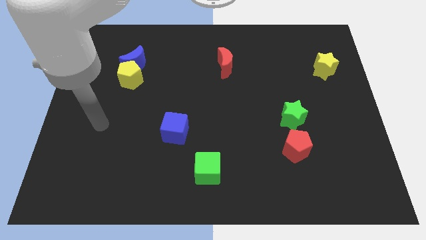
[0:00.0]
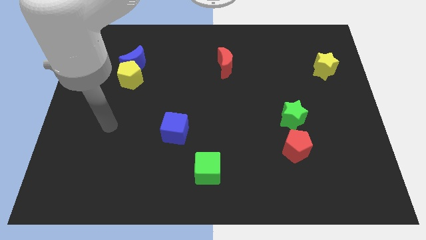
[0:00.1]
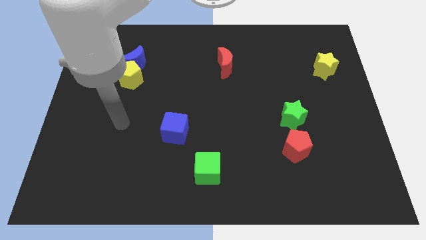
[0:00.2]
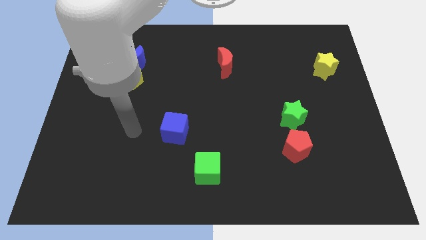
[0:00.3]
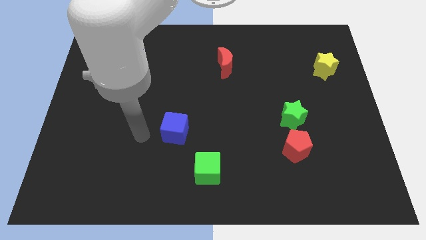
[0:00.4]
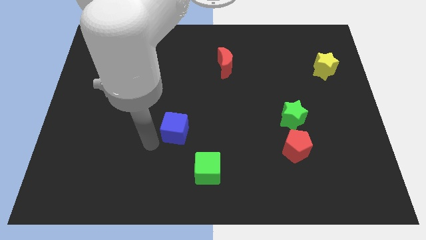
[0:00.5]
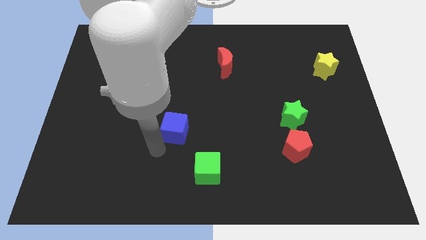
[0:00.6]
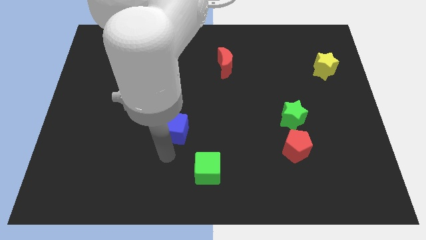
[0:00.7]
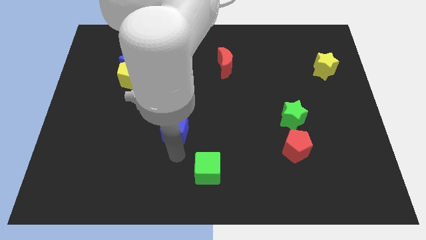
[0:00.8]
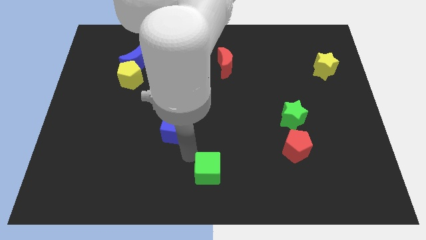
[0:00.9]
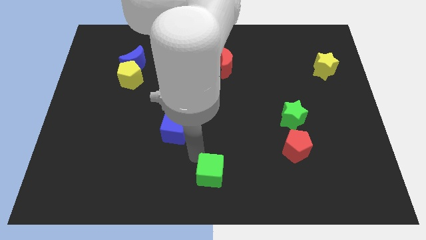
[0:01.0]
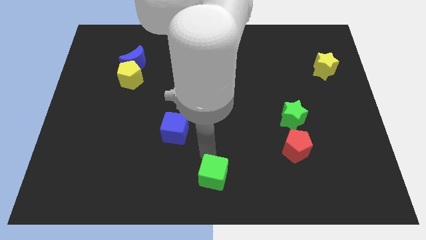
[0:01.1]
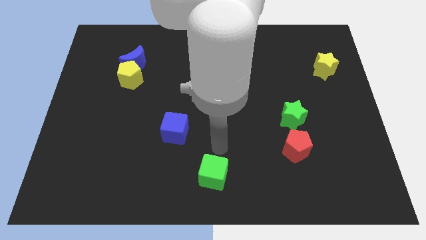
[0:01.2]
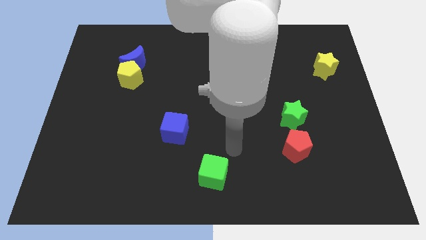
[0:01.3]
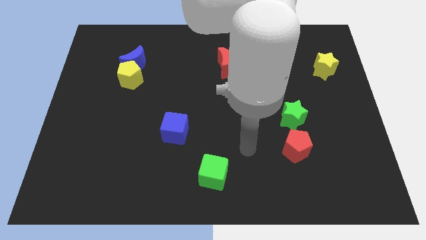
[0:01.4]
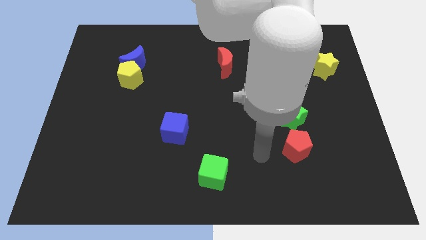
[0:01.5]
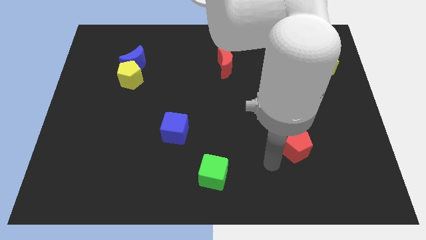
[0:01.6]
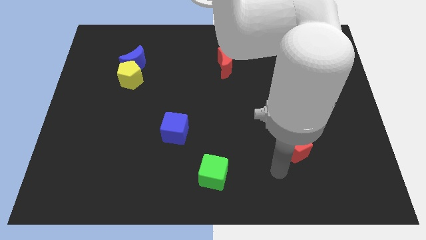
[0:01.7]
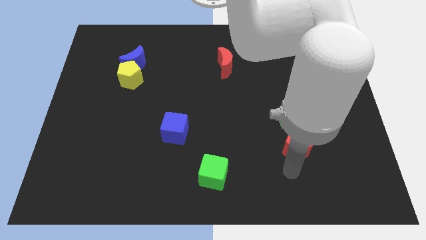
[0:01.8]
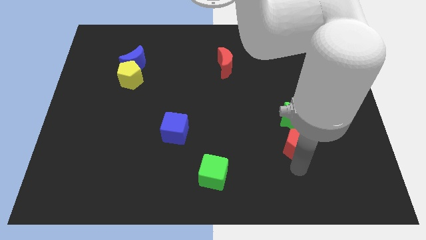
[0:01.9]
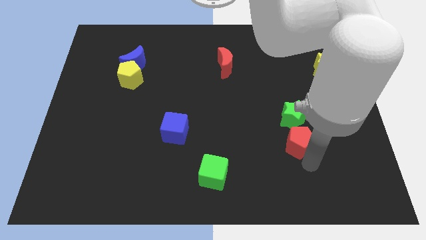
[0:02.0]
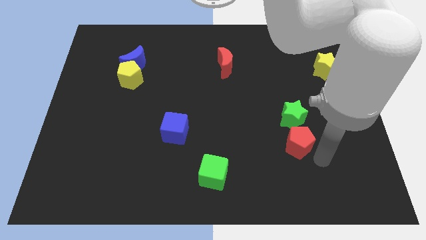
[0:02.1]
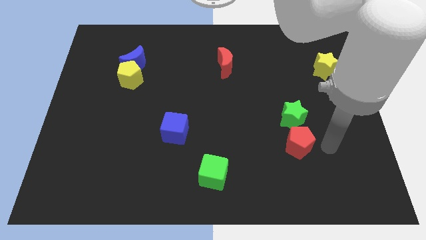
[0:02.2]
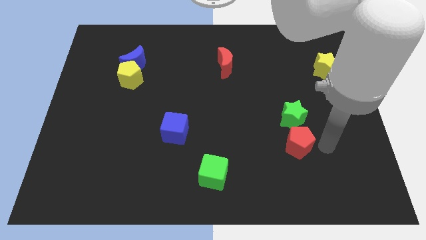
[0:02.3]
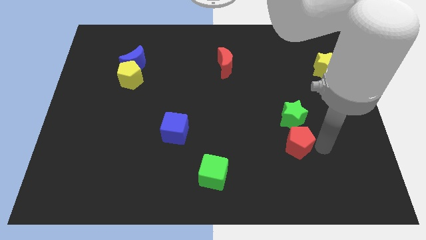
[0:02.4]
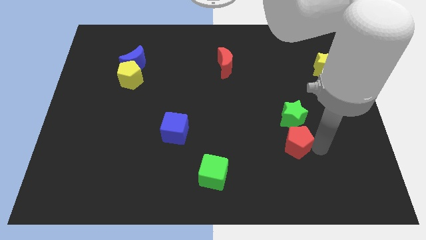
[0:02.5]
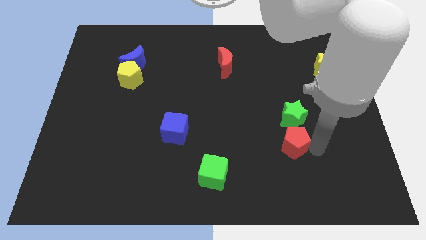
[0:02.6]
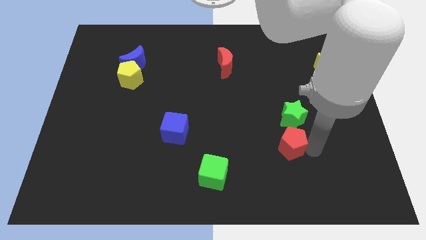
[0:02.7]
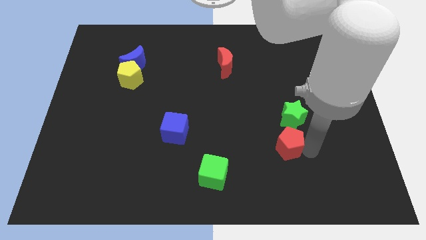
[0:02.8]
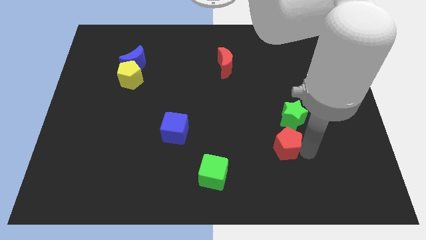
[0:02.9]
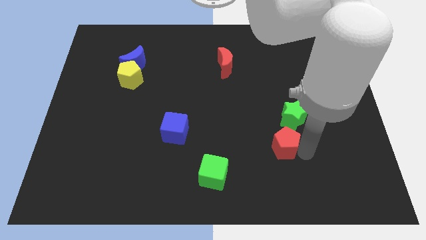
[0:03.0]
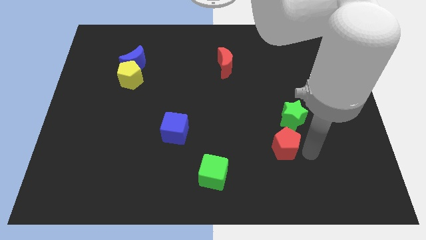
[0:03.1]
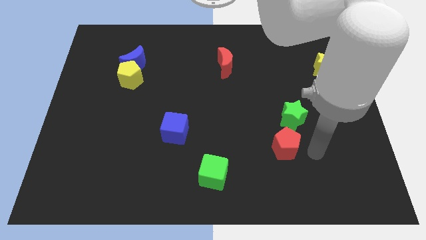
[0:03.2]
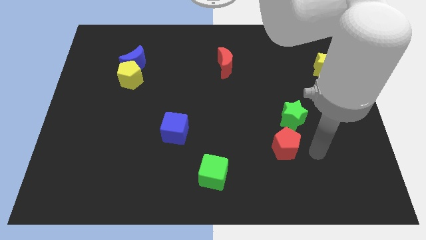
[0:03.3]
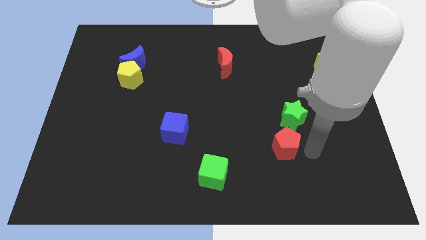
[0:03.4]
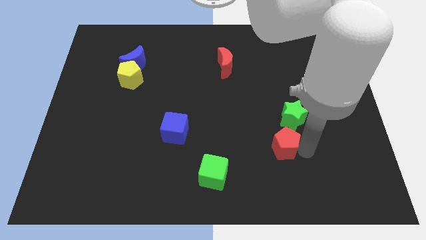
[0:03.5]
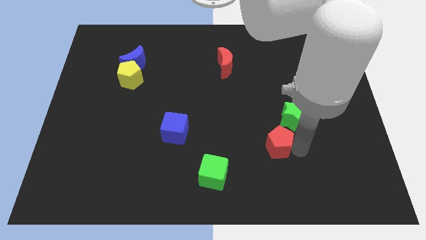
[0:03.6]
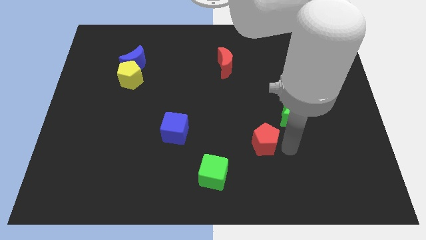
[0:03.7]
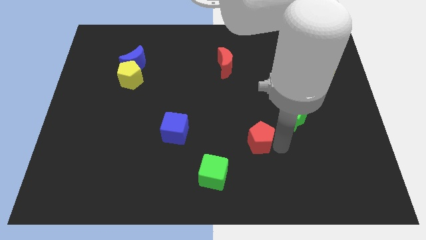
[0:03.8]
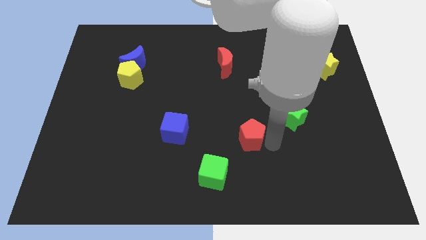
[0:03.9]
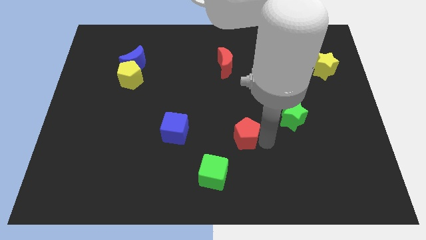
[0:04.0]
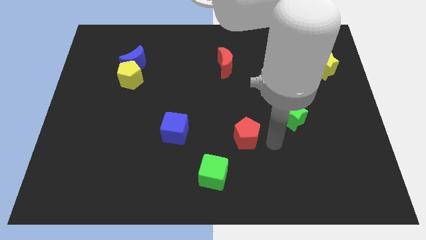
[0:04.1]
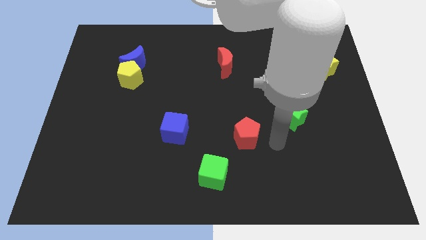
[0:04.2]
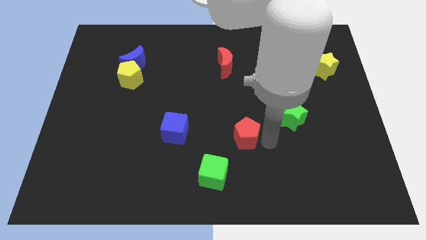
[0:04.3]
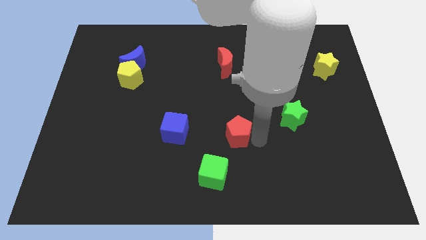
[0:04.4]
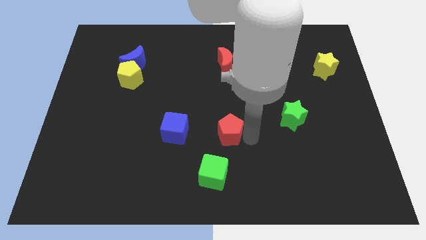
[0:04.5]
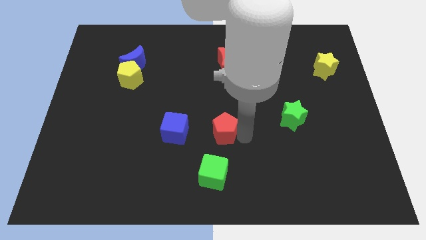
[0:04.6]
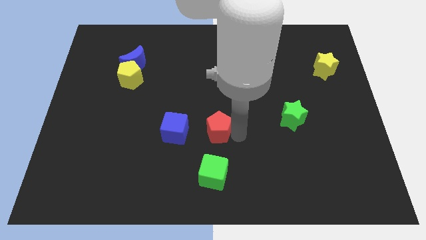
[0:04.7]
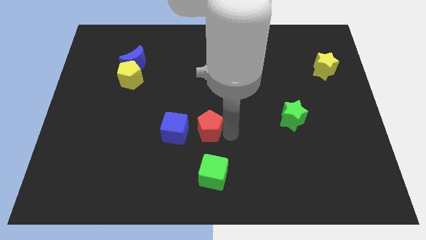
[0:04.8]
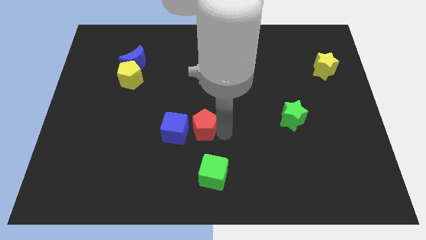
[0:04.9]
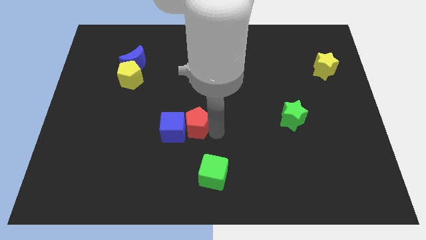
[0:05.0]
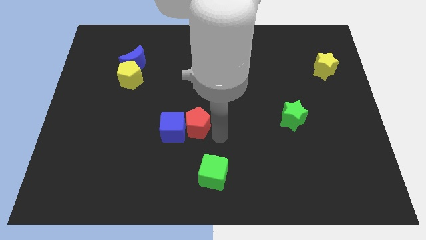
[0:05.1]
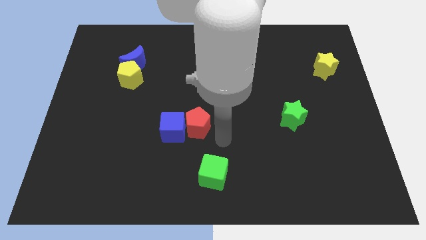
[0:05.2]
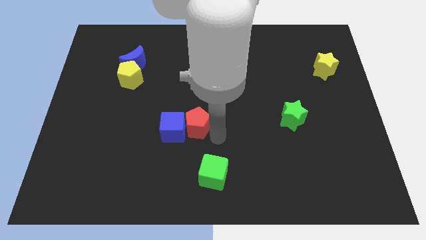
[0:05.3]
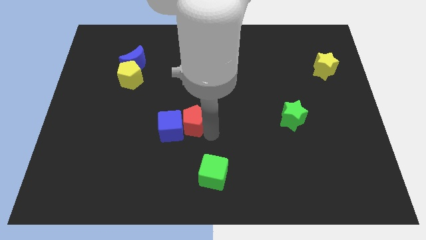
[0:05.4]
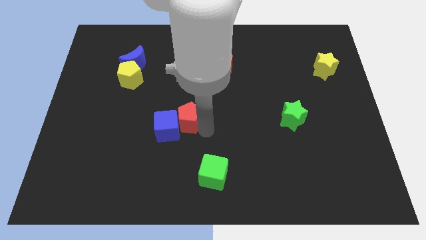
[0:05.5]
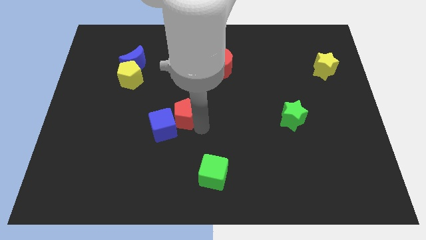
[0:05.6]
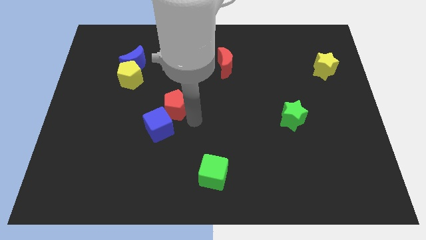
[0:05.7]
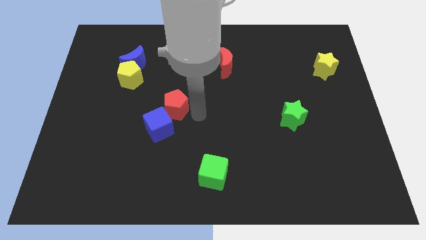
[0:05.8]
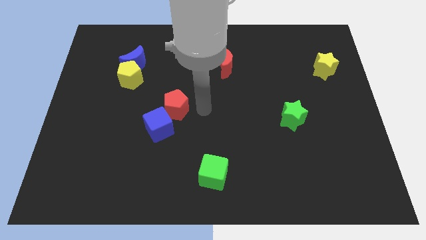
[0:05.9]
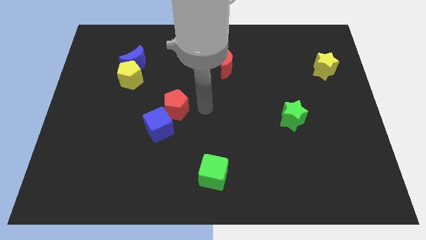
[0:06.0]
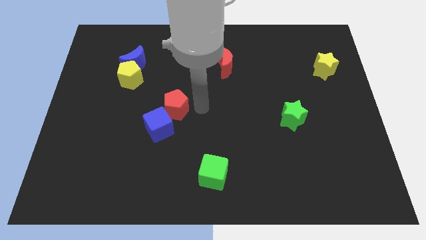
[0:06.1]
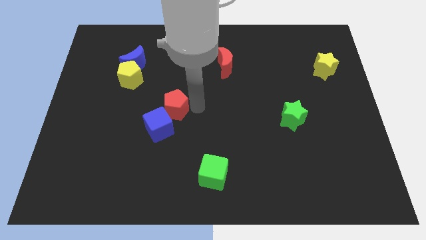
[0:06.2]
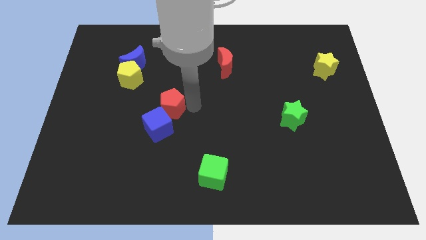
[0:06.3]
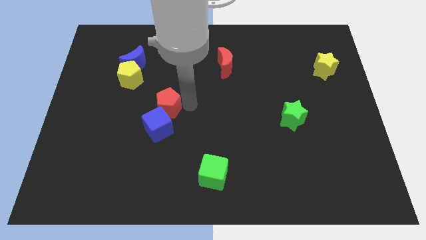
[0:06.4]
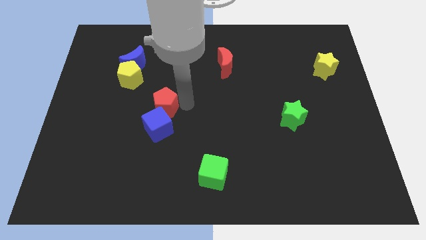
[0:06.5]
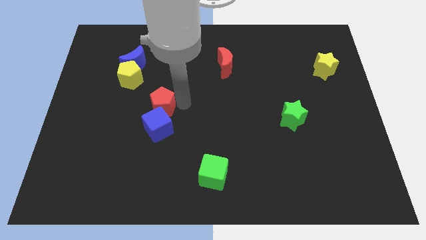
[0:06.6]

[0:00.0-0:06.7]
slide the red pentagon diagonally up and to the left of the blue cube

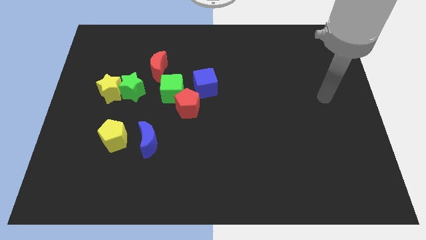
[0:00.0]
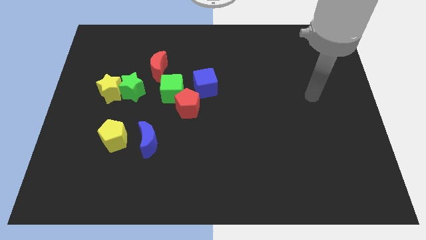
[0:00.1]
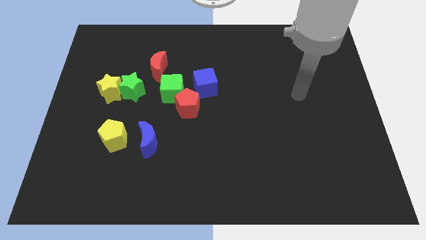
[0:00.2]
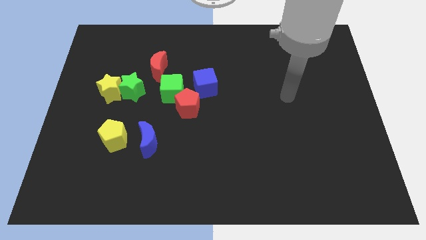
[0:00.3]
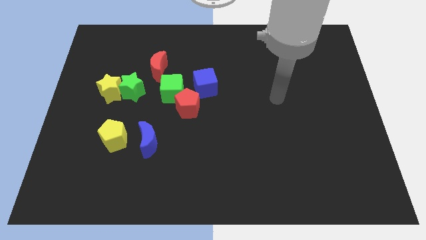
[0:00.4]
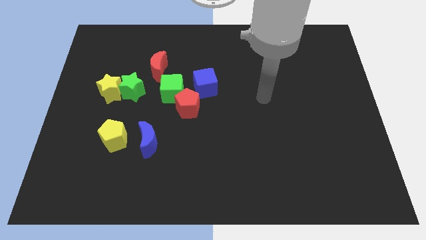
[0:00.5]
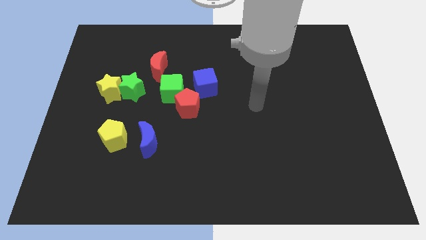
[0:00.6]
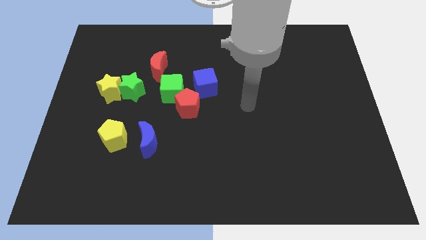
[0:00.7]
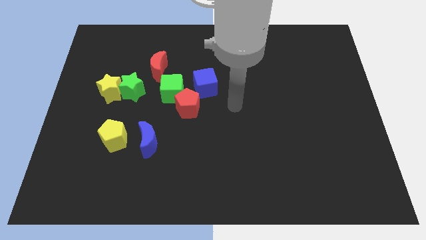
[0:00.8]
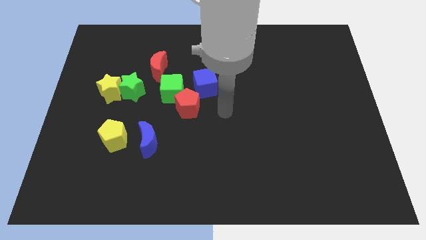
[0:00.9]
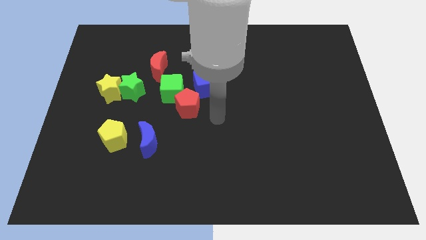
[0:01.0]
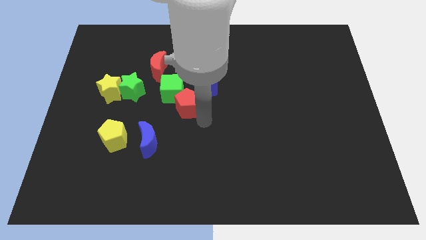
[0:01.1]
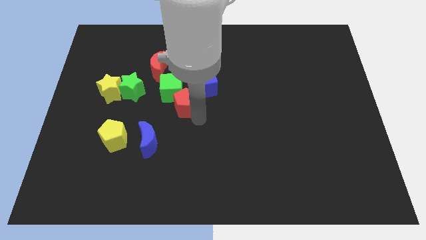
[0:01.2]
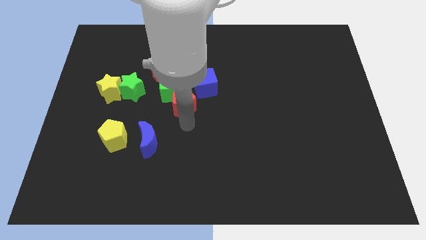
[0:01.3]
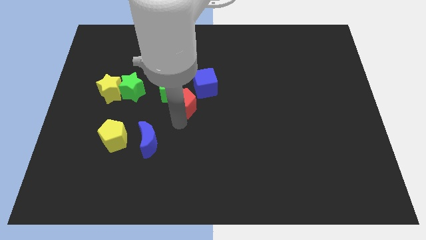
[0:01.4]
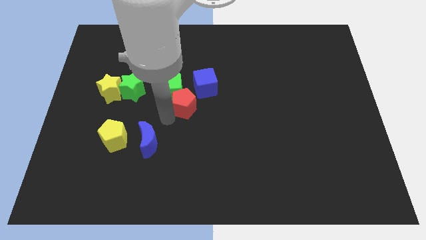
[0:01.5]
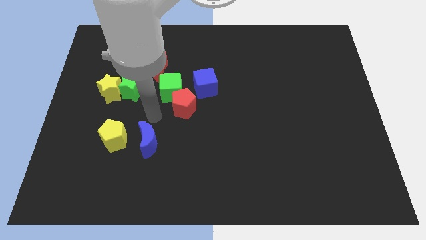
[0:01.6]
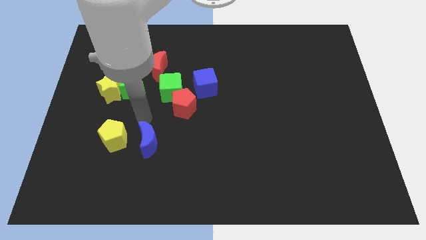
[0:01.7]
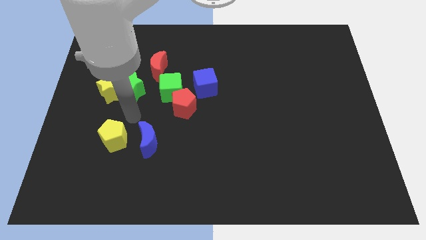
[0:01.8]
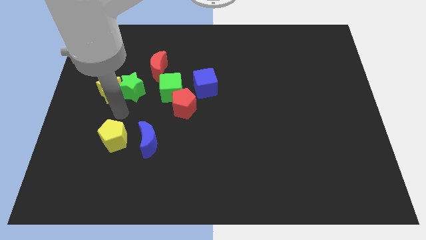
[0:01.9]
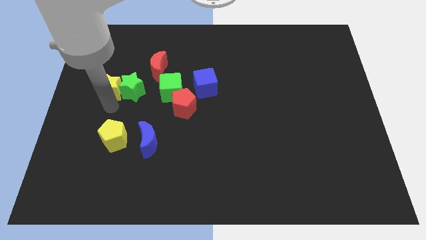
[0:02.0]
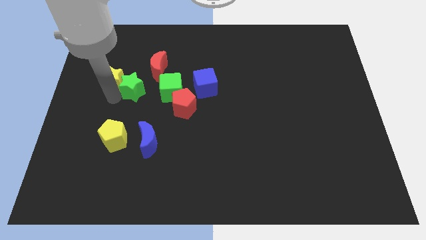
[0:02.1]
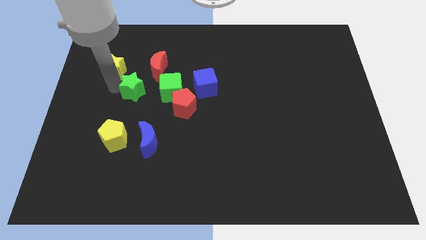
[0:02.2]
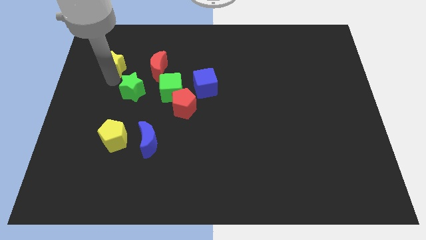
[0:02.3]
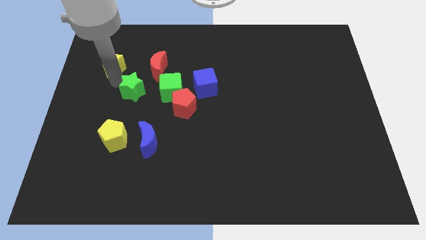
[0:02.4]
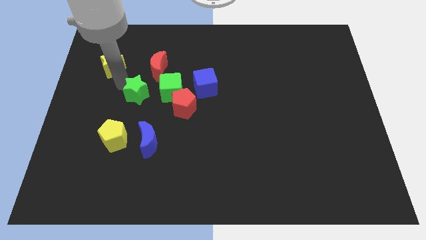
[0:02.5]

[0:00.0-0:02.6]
push the green star below the red moon
